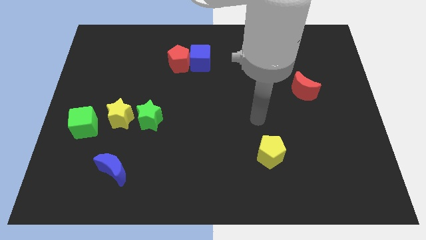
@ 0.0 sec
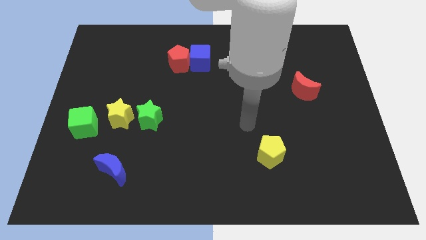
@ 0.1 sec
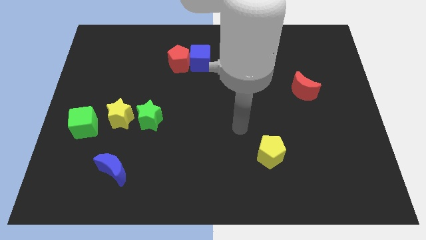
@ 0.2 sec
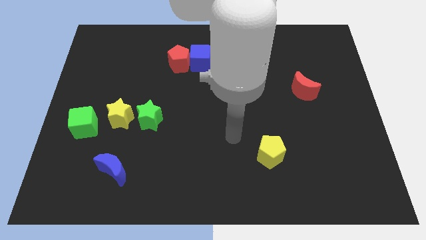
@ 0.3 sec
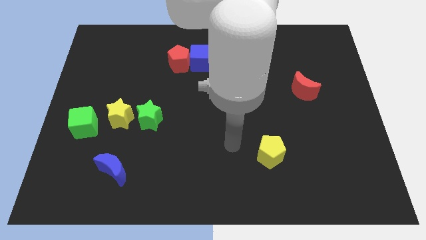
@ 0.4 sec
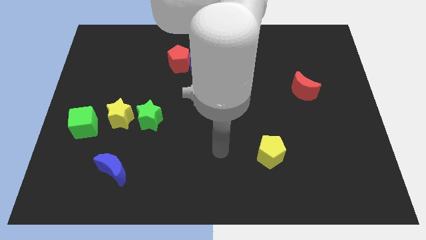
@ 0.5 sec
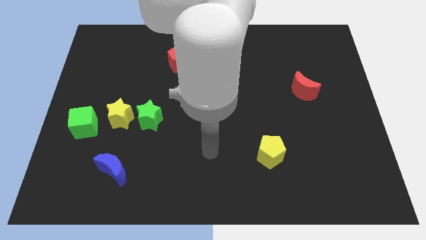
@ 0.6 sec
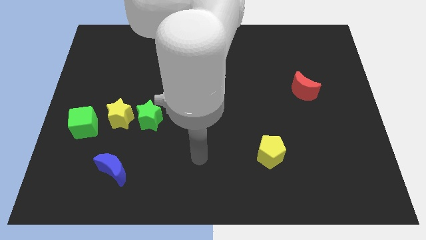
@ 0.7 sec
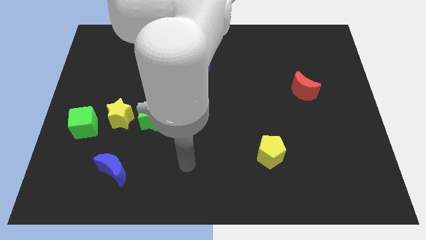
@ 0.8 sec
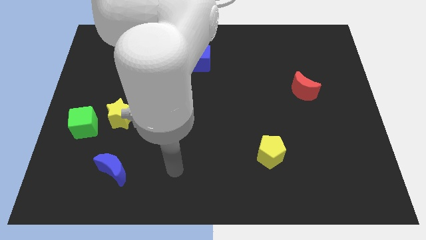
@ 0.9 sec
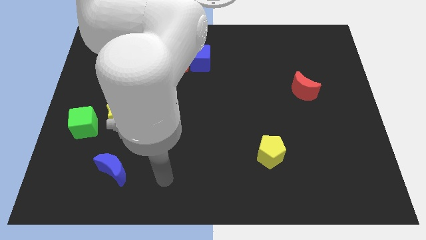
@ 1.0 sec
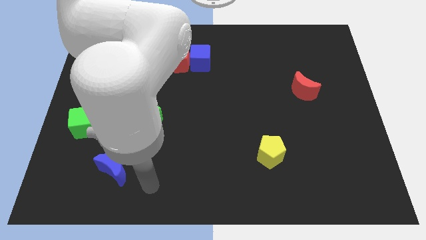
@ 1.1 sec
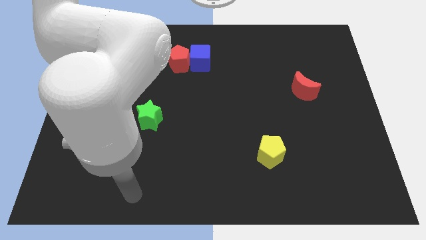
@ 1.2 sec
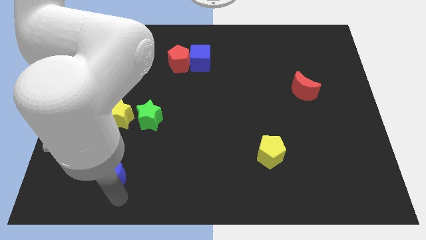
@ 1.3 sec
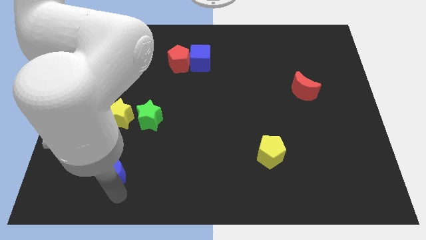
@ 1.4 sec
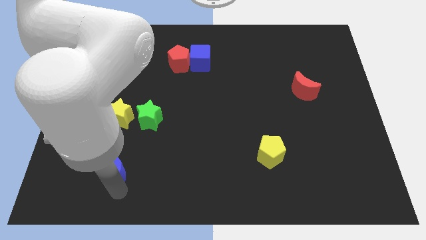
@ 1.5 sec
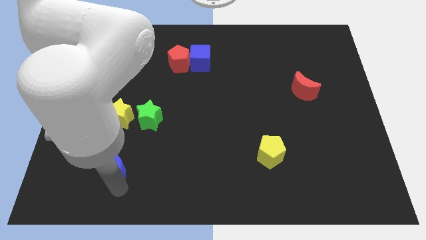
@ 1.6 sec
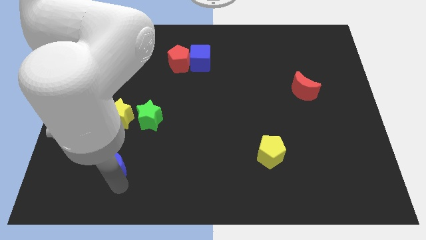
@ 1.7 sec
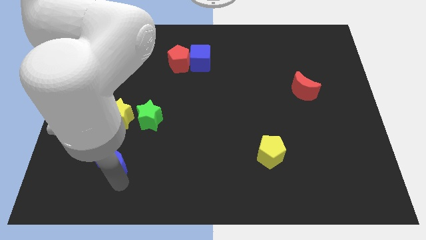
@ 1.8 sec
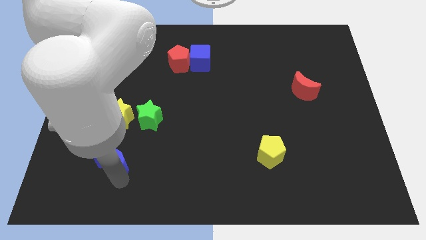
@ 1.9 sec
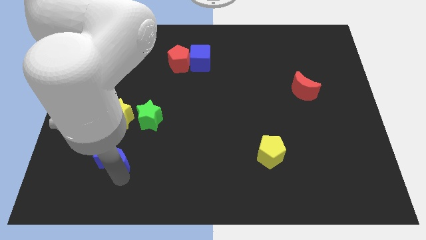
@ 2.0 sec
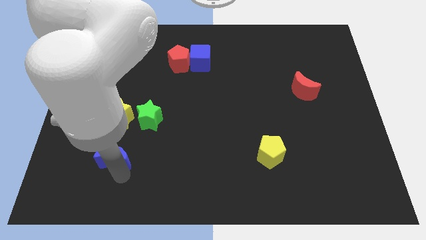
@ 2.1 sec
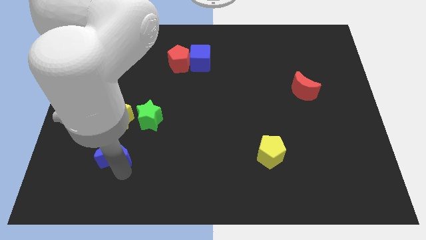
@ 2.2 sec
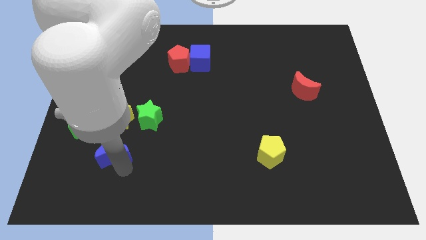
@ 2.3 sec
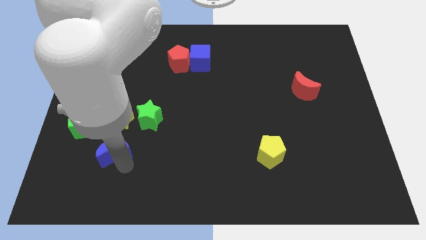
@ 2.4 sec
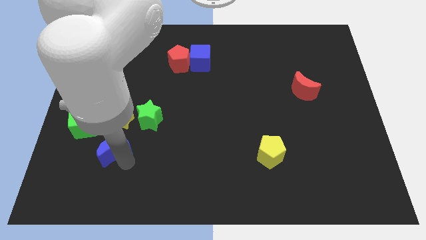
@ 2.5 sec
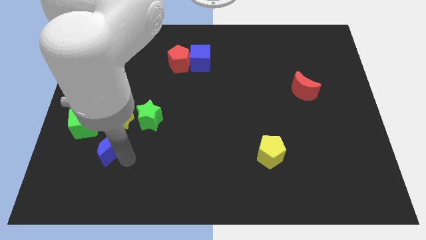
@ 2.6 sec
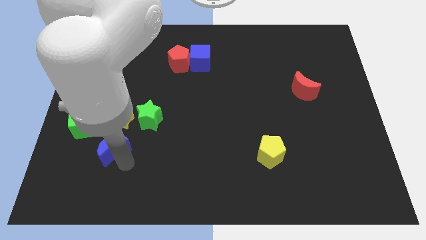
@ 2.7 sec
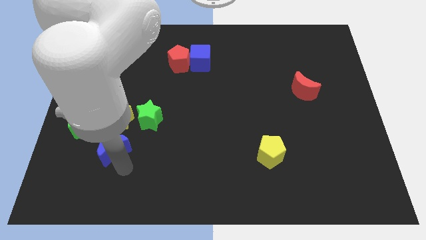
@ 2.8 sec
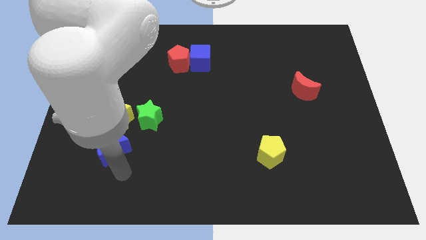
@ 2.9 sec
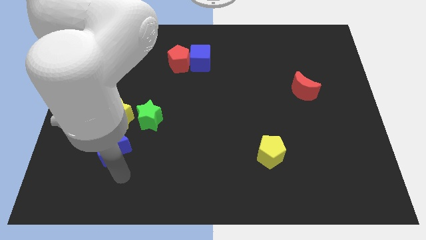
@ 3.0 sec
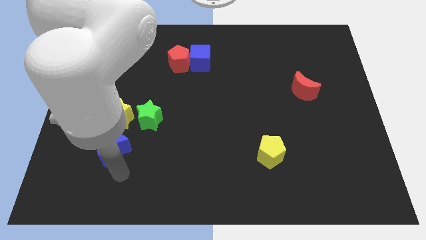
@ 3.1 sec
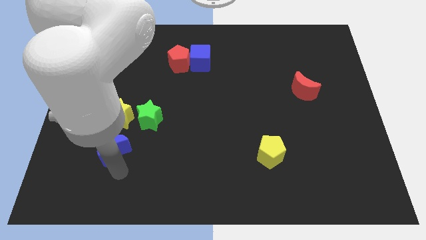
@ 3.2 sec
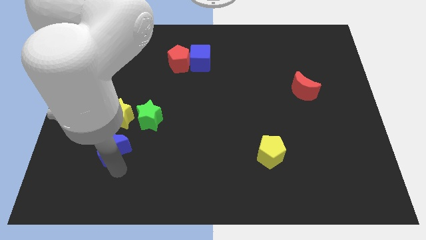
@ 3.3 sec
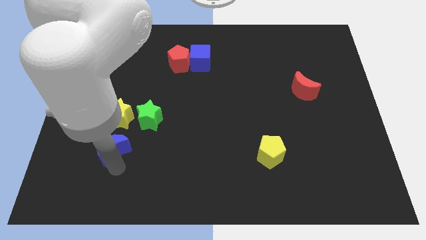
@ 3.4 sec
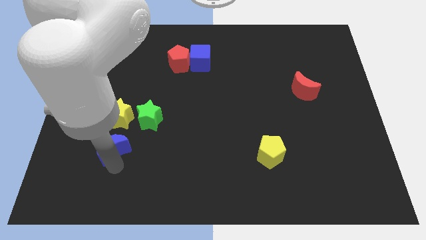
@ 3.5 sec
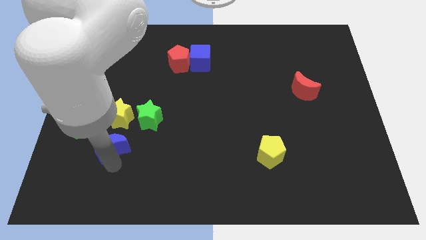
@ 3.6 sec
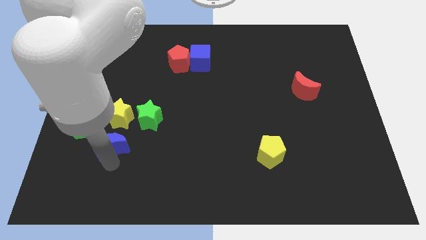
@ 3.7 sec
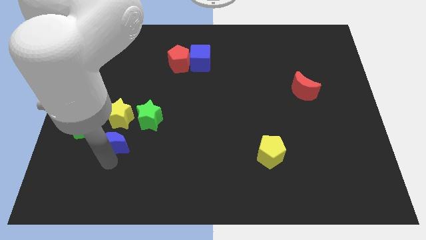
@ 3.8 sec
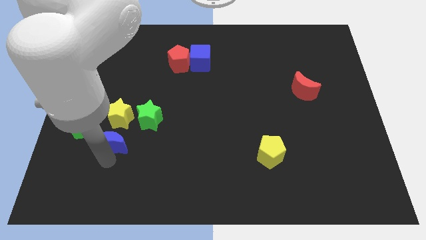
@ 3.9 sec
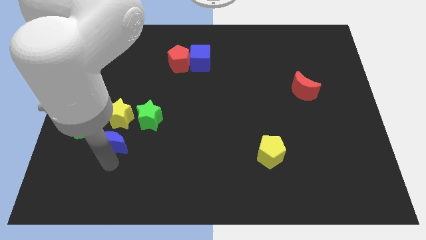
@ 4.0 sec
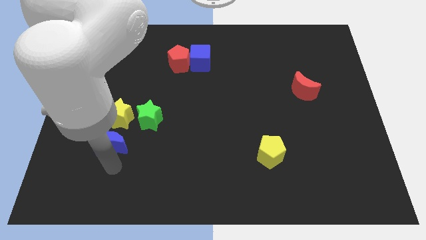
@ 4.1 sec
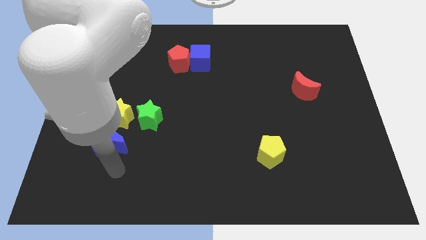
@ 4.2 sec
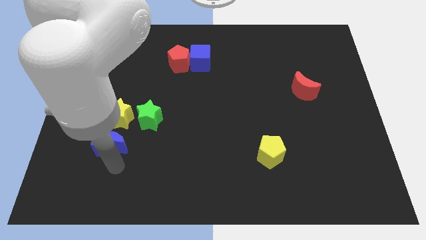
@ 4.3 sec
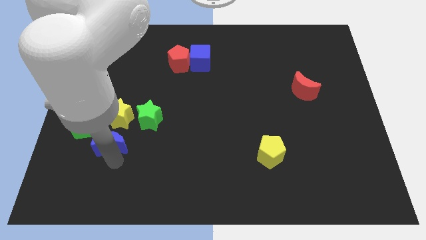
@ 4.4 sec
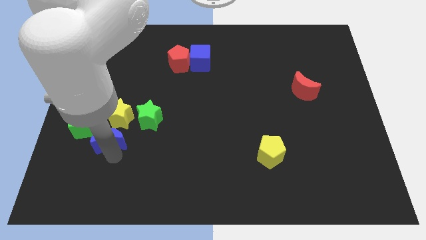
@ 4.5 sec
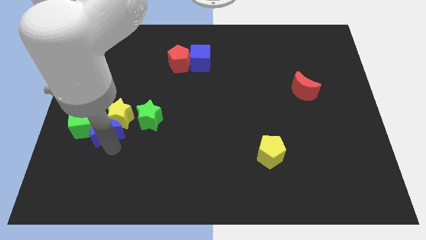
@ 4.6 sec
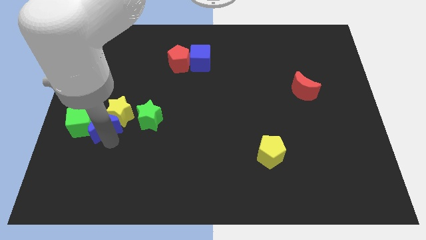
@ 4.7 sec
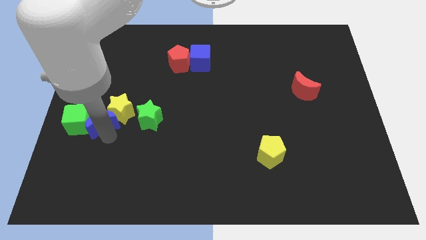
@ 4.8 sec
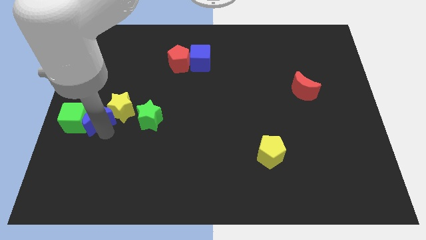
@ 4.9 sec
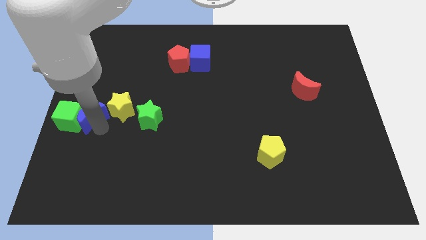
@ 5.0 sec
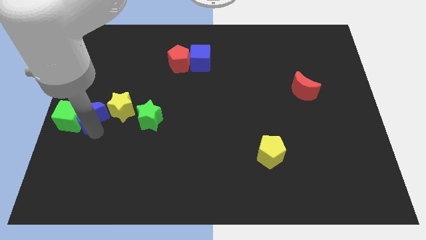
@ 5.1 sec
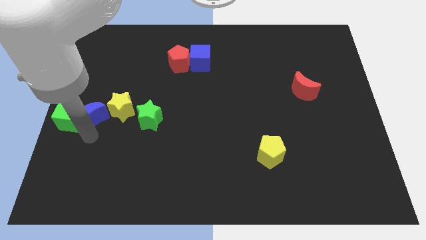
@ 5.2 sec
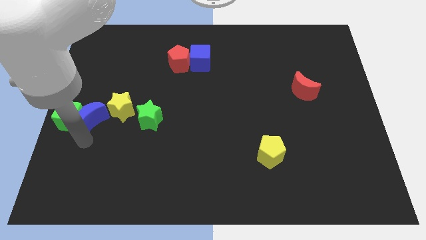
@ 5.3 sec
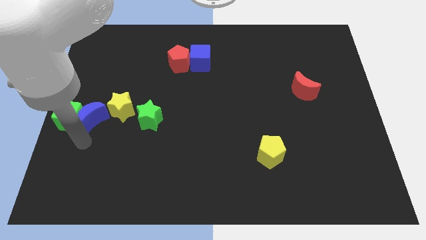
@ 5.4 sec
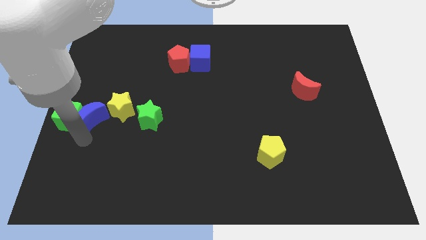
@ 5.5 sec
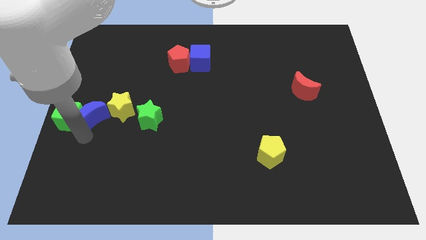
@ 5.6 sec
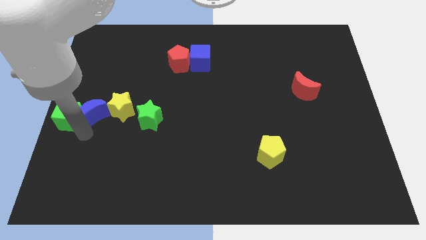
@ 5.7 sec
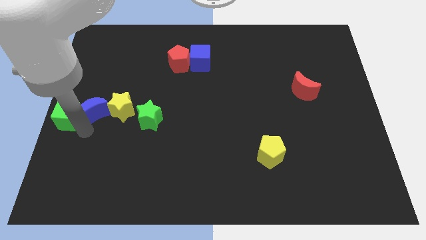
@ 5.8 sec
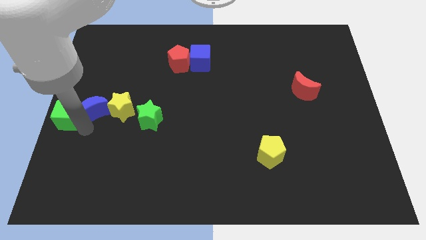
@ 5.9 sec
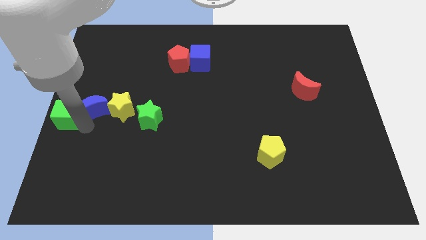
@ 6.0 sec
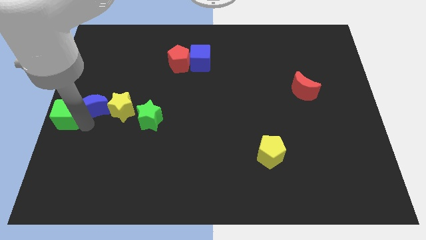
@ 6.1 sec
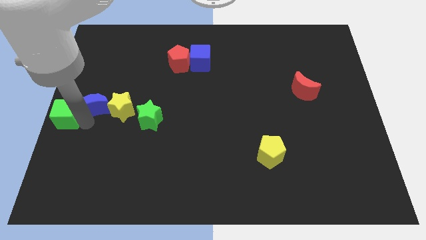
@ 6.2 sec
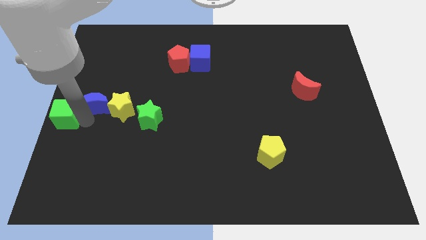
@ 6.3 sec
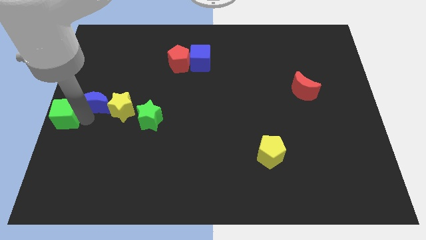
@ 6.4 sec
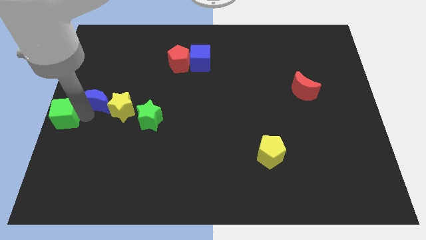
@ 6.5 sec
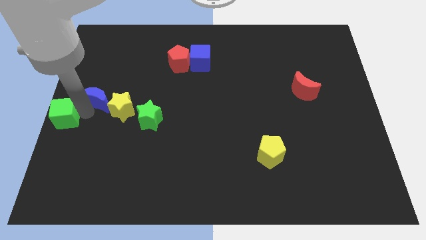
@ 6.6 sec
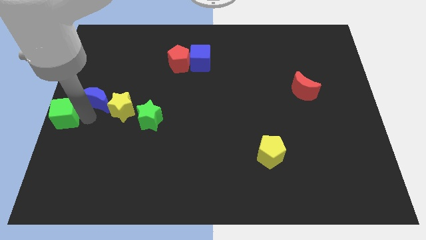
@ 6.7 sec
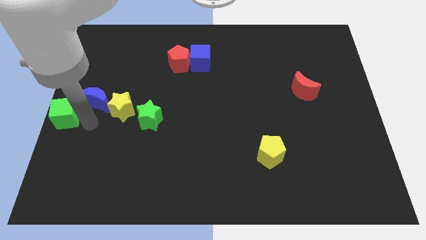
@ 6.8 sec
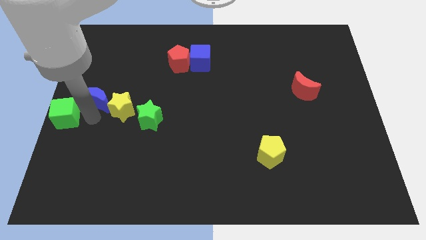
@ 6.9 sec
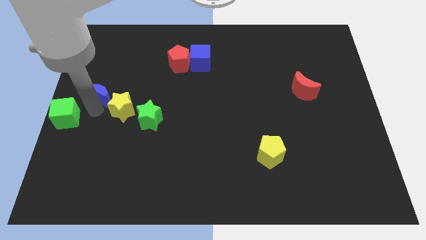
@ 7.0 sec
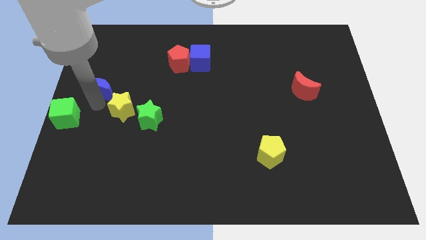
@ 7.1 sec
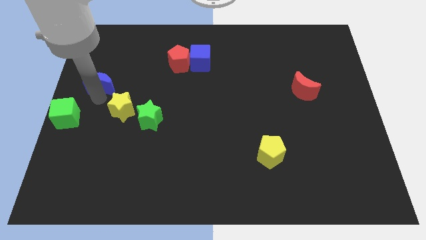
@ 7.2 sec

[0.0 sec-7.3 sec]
push the blue moon upwards

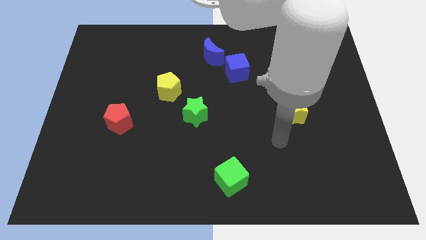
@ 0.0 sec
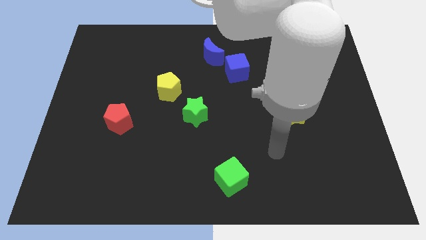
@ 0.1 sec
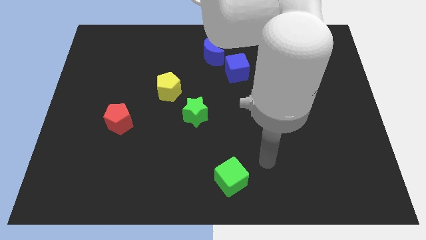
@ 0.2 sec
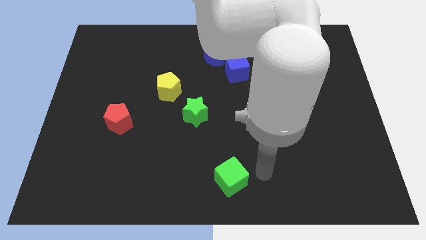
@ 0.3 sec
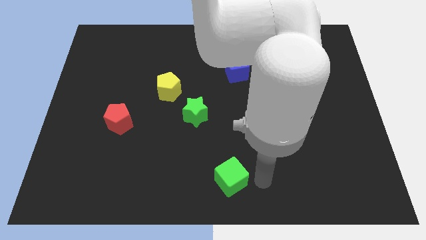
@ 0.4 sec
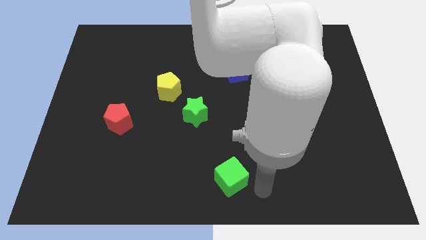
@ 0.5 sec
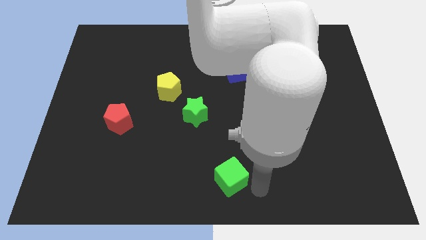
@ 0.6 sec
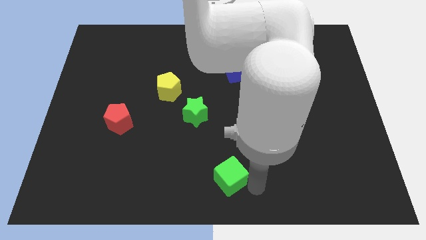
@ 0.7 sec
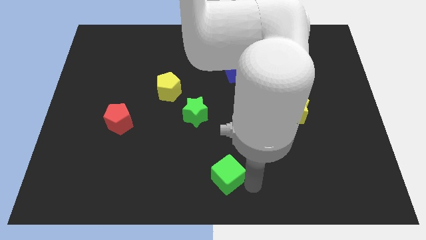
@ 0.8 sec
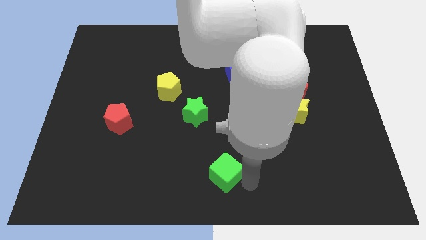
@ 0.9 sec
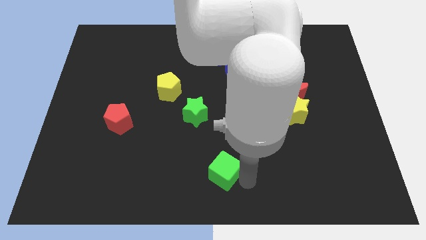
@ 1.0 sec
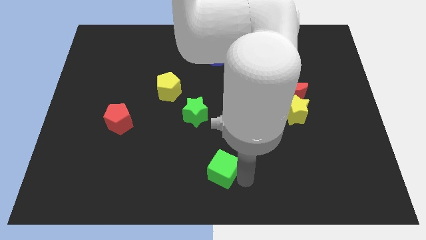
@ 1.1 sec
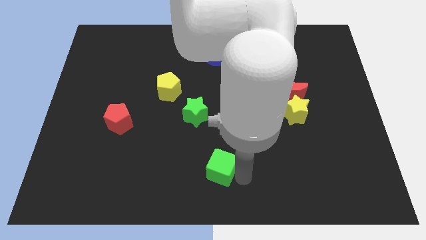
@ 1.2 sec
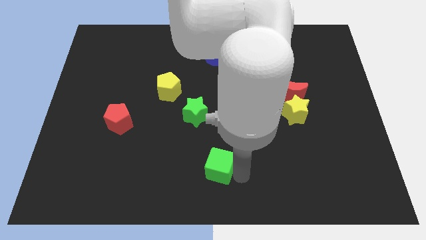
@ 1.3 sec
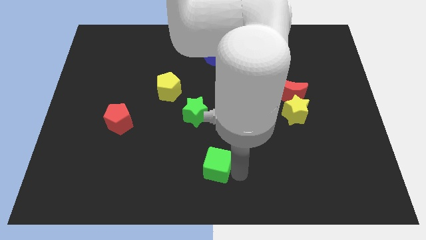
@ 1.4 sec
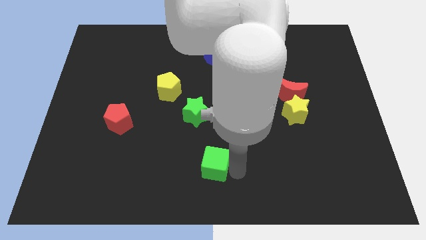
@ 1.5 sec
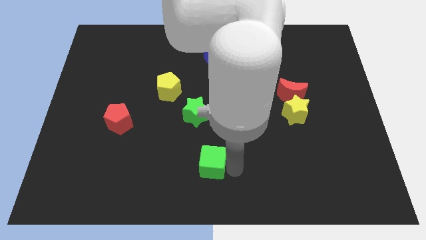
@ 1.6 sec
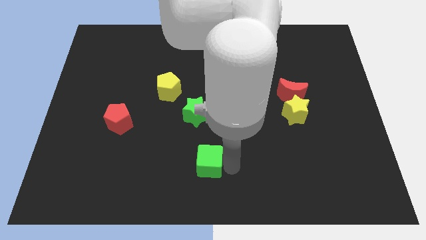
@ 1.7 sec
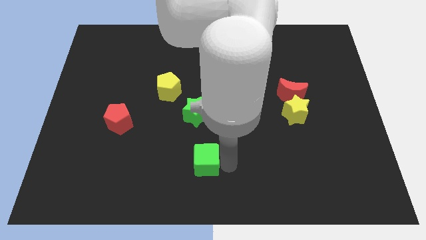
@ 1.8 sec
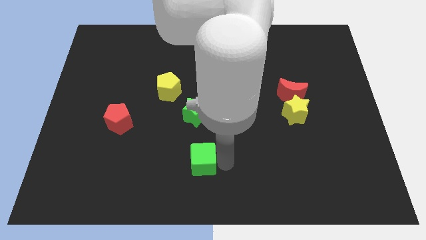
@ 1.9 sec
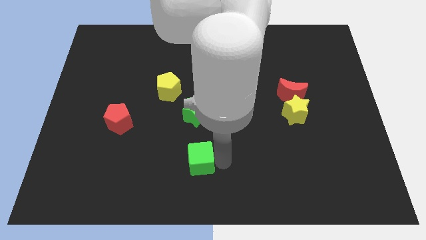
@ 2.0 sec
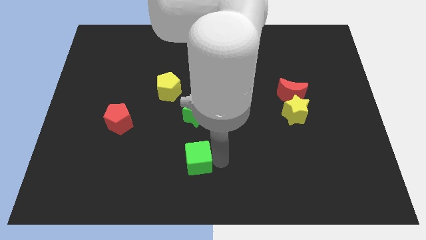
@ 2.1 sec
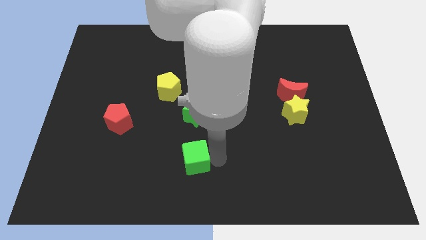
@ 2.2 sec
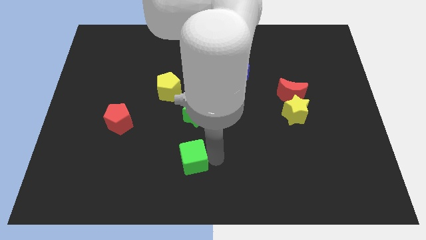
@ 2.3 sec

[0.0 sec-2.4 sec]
slide the green cube a little to the left
